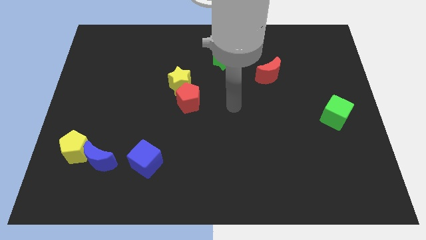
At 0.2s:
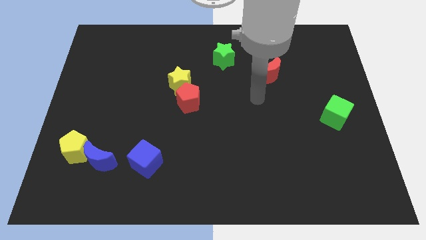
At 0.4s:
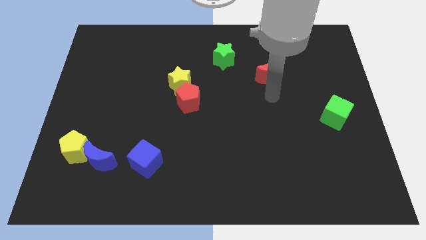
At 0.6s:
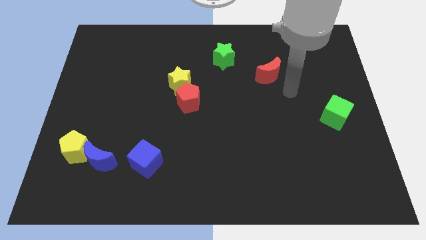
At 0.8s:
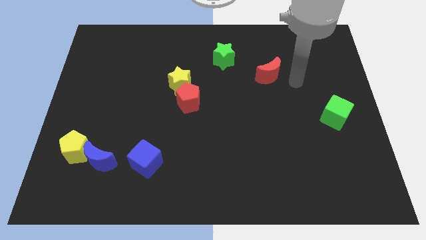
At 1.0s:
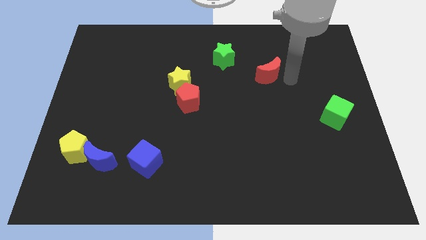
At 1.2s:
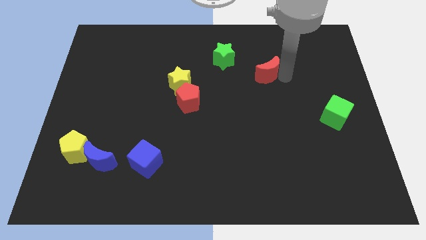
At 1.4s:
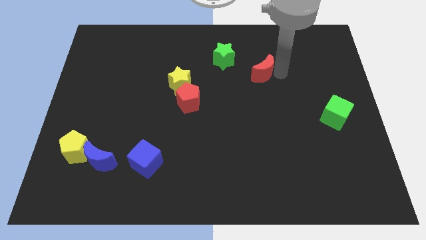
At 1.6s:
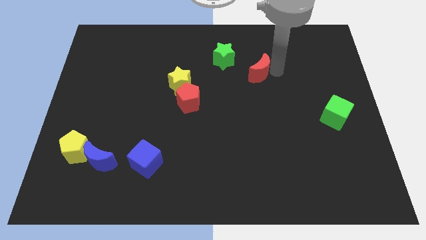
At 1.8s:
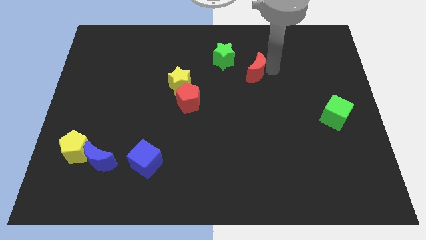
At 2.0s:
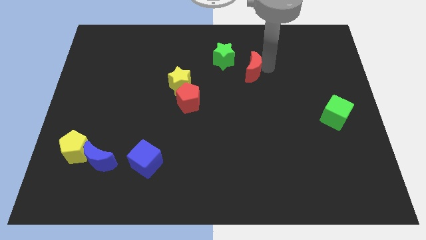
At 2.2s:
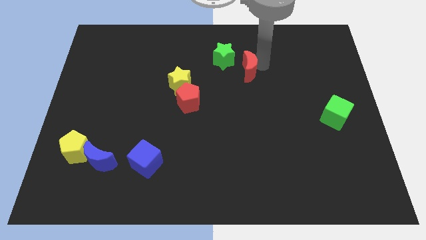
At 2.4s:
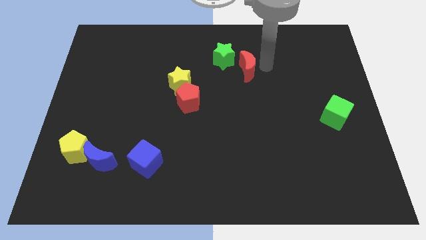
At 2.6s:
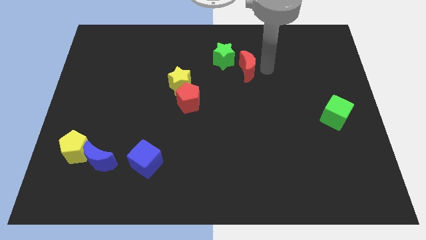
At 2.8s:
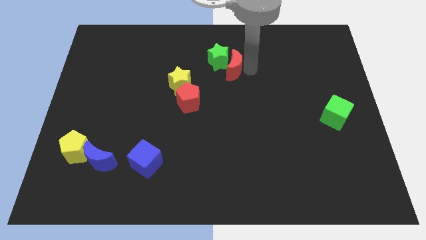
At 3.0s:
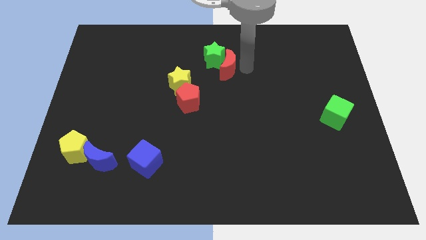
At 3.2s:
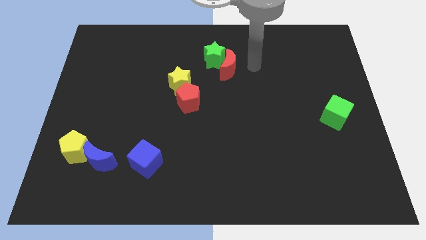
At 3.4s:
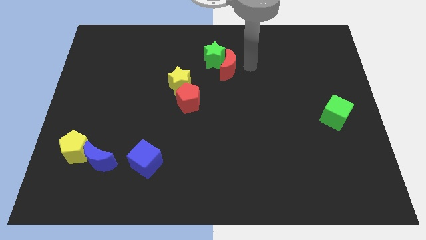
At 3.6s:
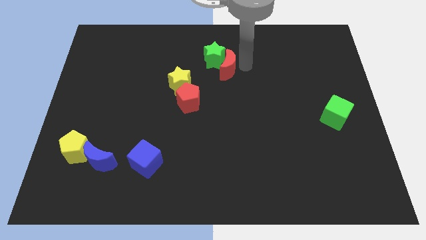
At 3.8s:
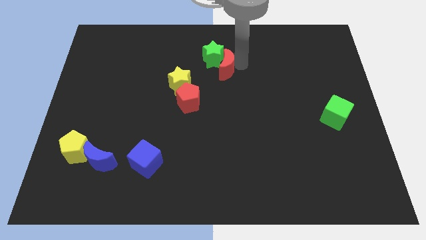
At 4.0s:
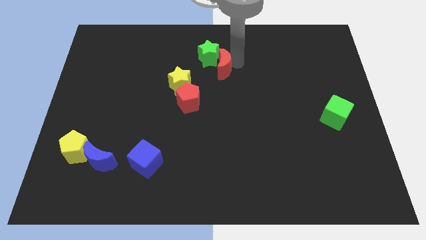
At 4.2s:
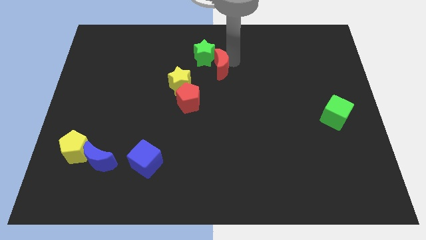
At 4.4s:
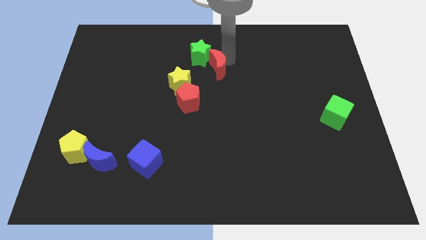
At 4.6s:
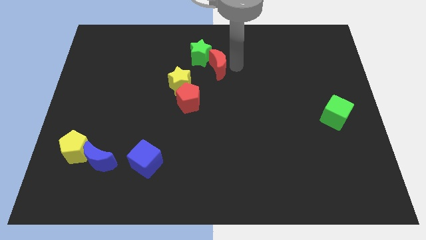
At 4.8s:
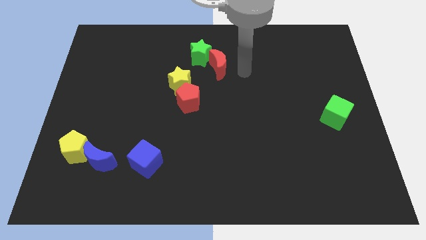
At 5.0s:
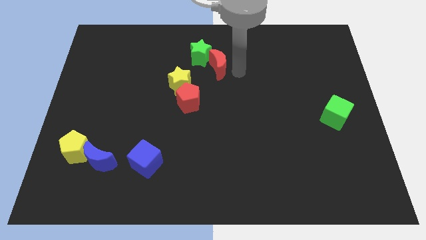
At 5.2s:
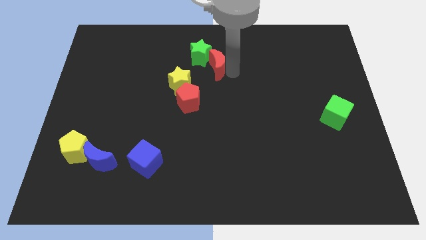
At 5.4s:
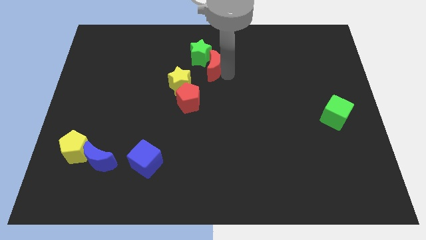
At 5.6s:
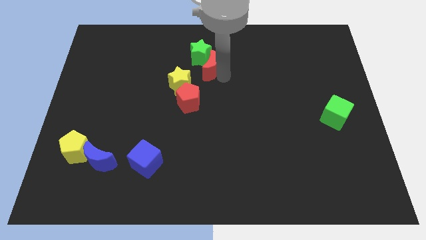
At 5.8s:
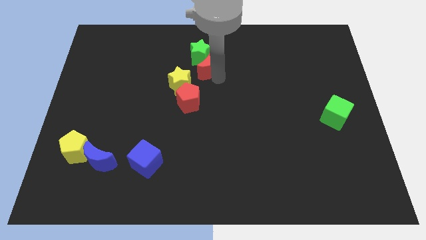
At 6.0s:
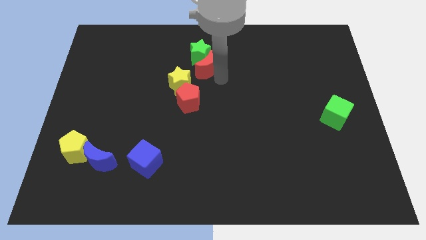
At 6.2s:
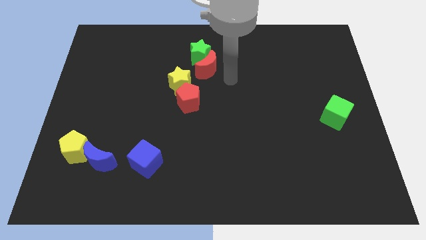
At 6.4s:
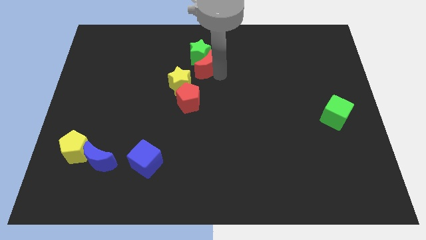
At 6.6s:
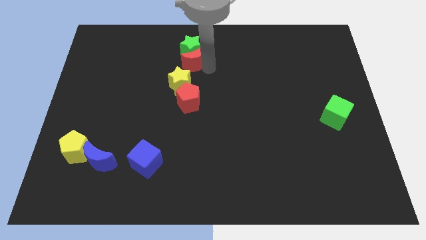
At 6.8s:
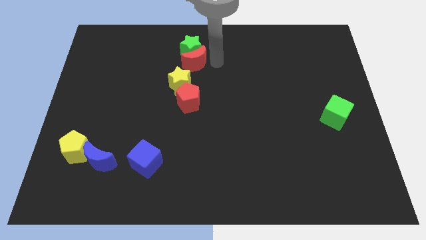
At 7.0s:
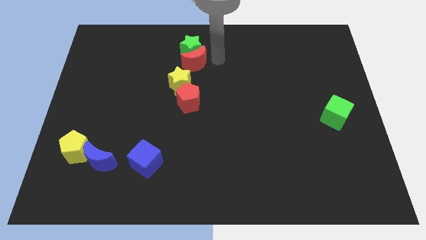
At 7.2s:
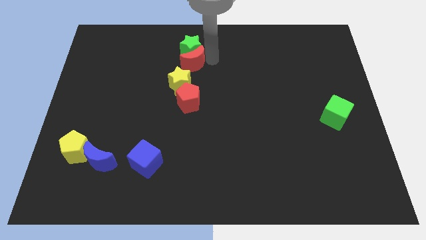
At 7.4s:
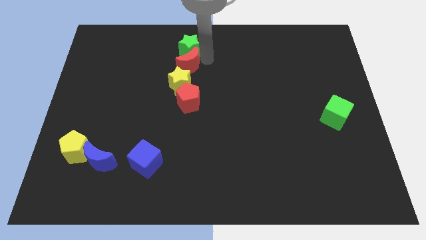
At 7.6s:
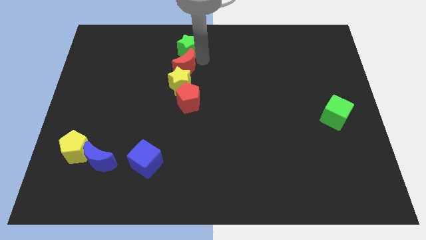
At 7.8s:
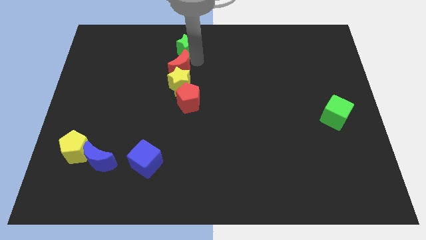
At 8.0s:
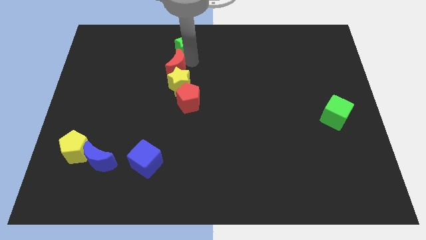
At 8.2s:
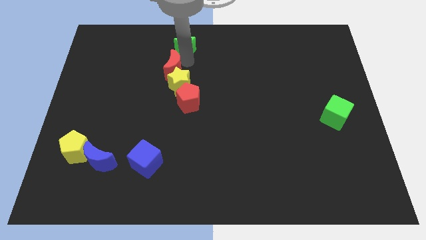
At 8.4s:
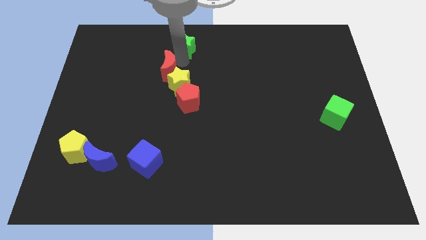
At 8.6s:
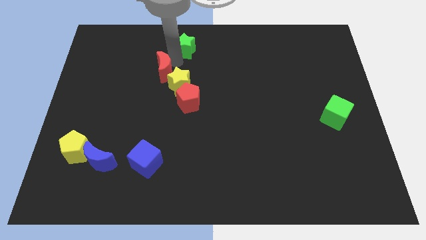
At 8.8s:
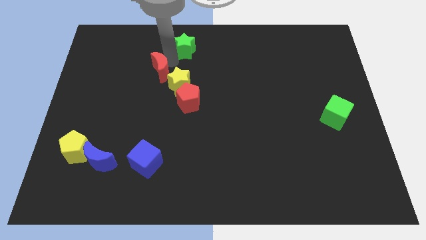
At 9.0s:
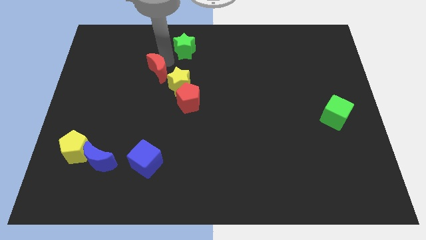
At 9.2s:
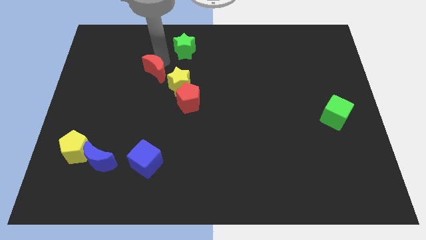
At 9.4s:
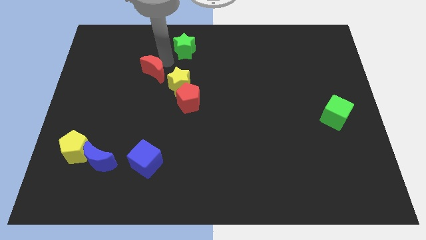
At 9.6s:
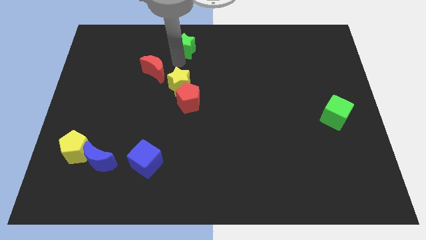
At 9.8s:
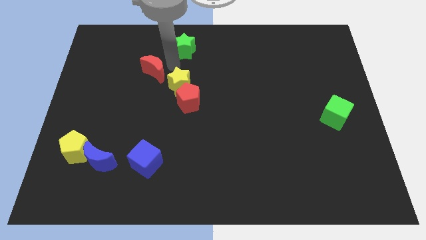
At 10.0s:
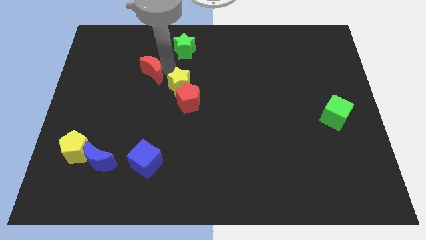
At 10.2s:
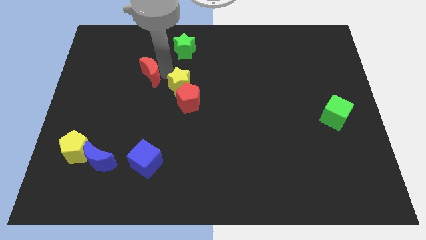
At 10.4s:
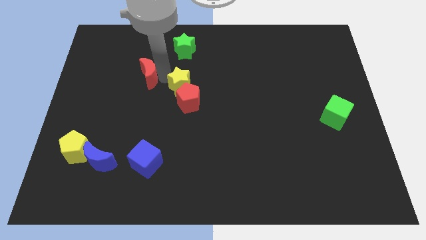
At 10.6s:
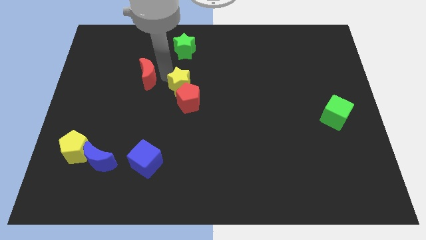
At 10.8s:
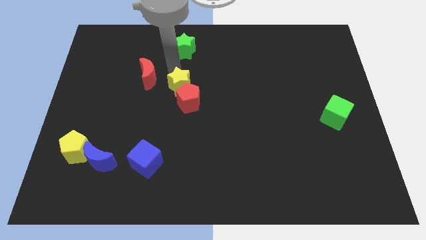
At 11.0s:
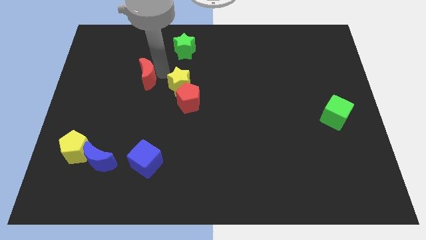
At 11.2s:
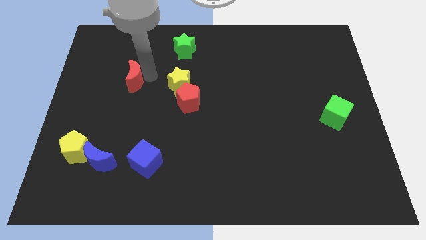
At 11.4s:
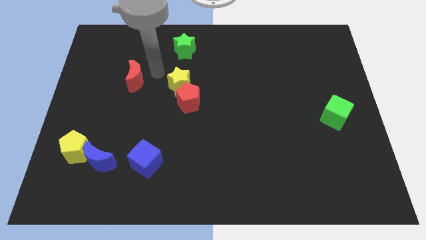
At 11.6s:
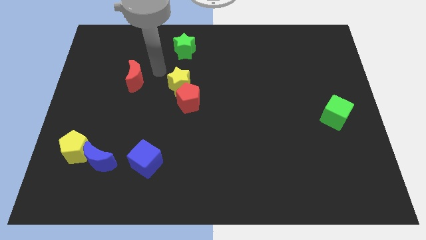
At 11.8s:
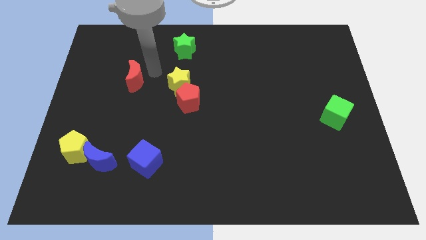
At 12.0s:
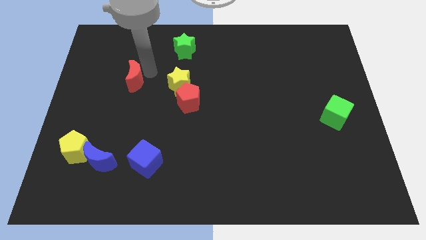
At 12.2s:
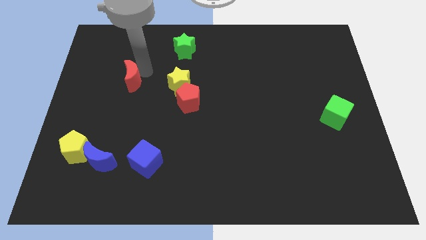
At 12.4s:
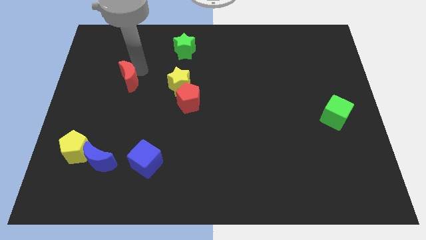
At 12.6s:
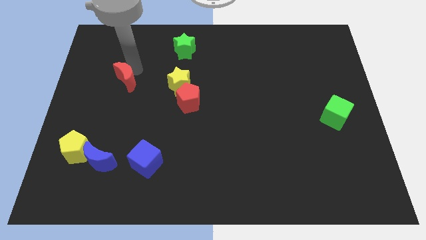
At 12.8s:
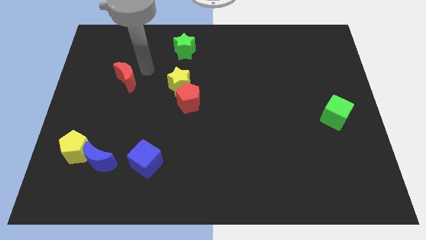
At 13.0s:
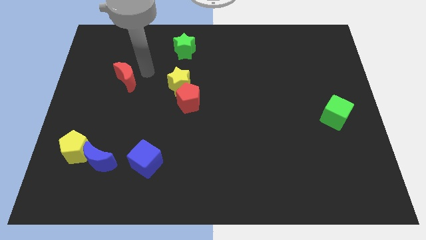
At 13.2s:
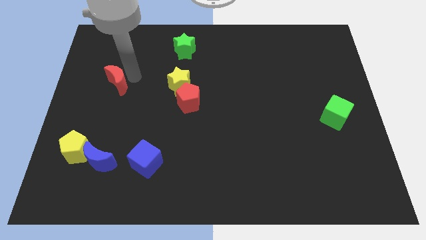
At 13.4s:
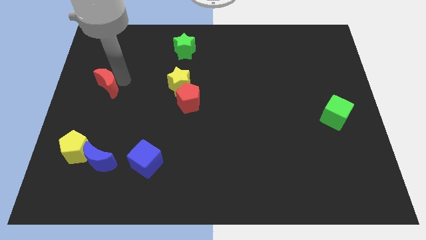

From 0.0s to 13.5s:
slide the red moon to the left side of the board
